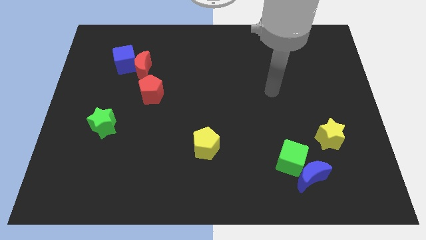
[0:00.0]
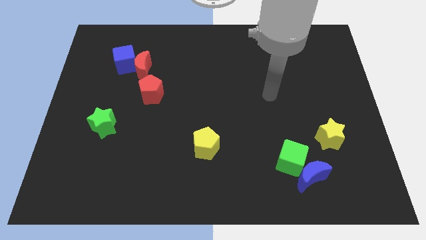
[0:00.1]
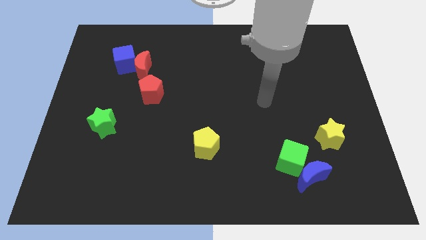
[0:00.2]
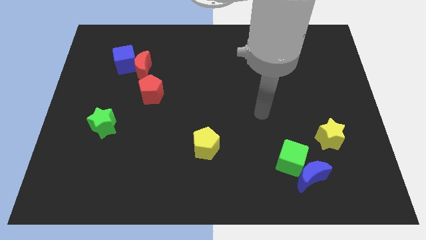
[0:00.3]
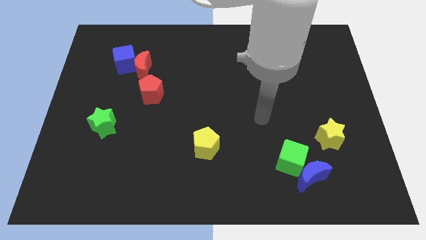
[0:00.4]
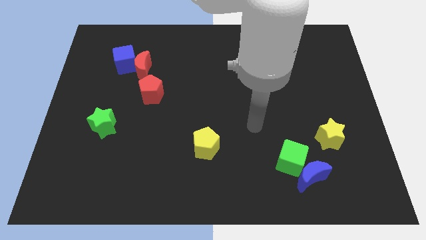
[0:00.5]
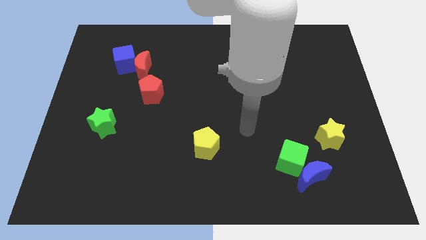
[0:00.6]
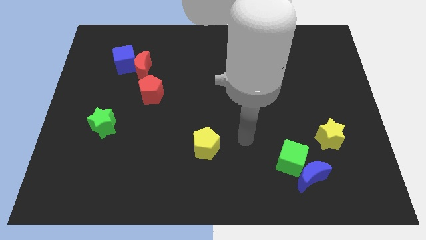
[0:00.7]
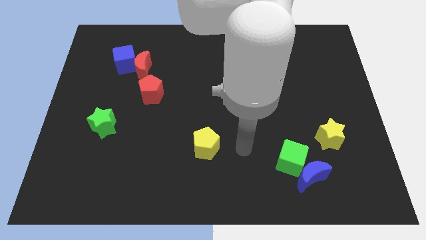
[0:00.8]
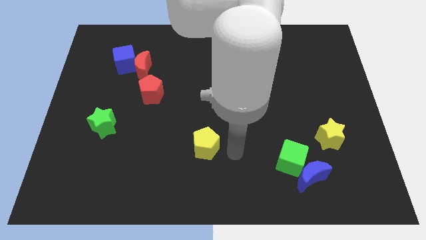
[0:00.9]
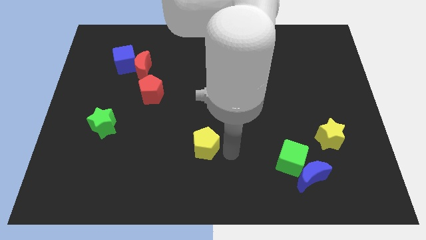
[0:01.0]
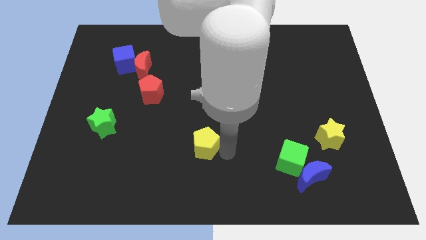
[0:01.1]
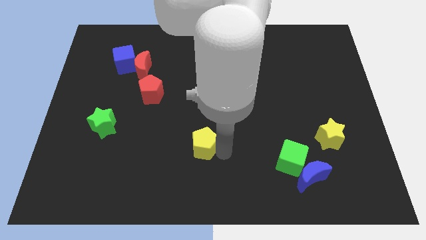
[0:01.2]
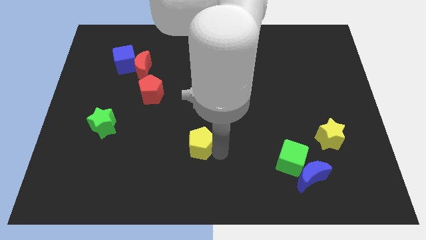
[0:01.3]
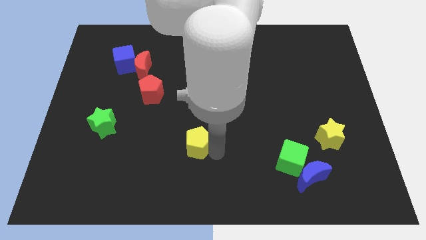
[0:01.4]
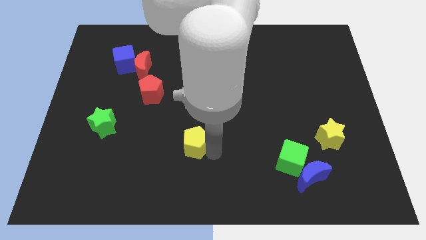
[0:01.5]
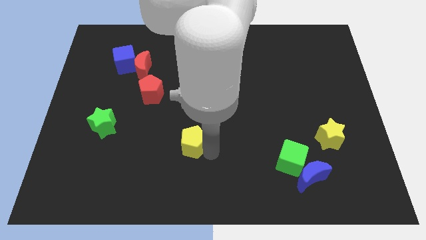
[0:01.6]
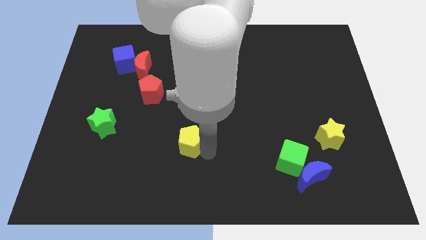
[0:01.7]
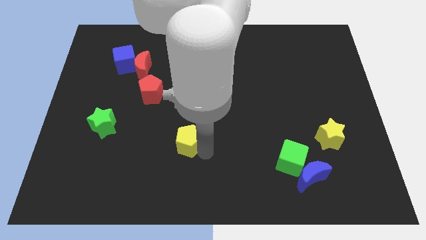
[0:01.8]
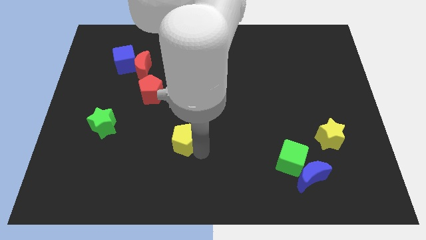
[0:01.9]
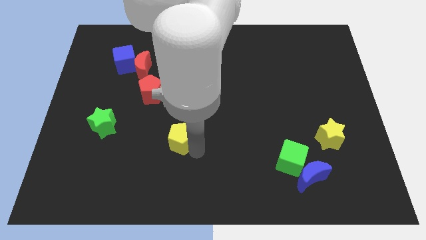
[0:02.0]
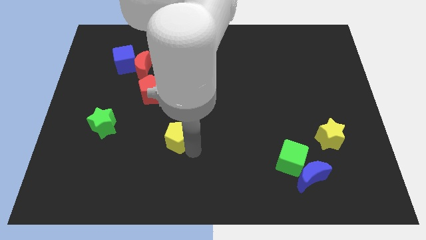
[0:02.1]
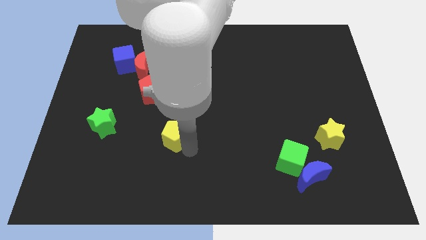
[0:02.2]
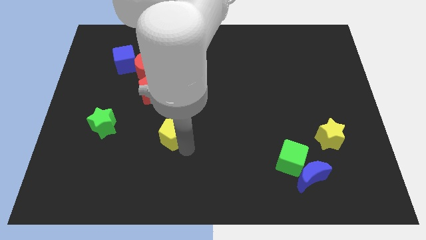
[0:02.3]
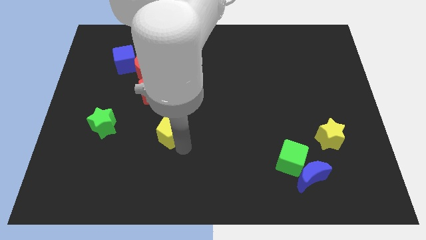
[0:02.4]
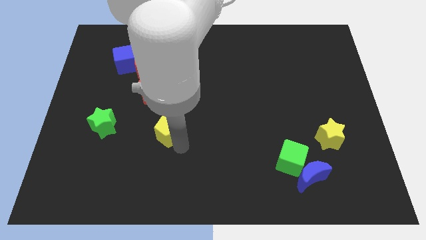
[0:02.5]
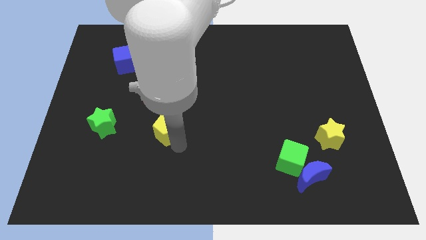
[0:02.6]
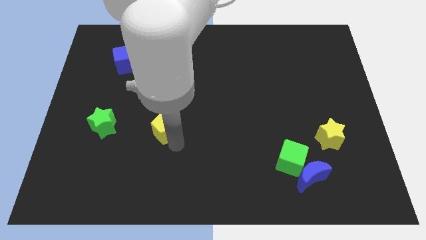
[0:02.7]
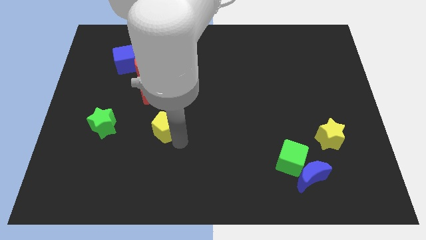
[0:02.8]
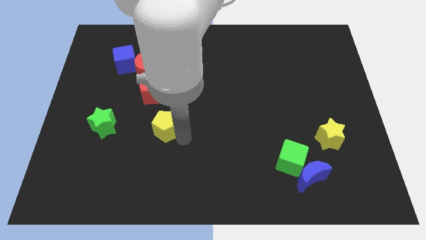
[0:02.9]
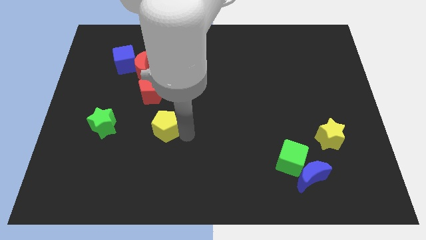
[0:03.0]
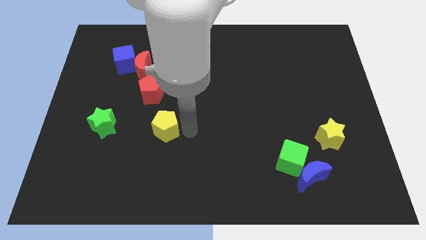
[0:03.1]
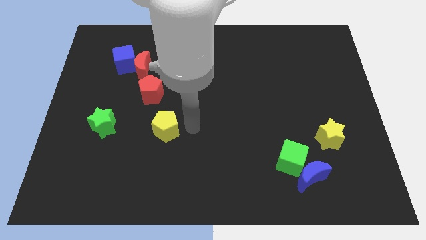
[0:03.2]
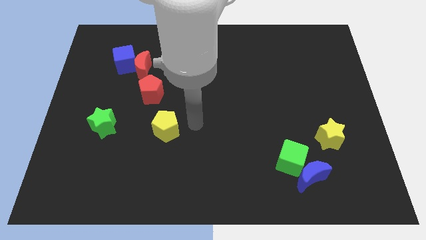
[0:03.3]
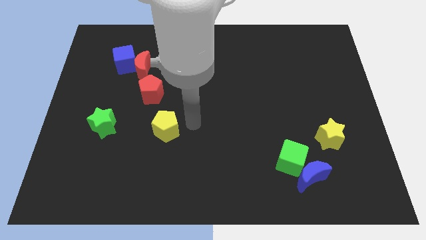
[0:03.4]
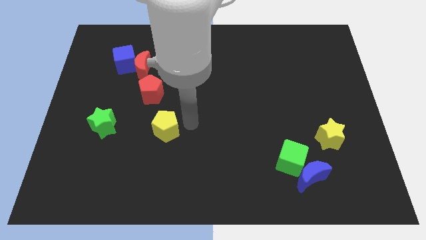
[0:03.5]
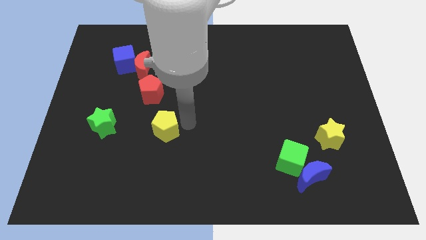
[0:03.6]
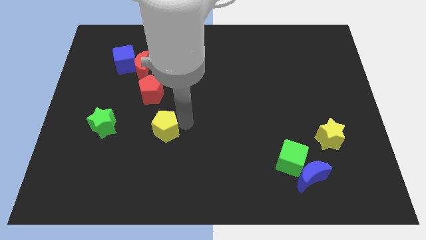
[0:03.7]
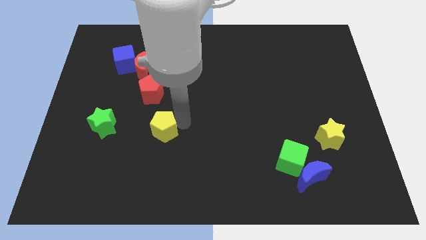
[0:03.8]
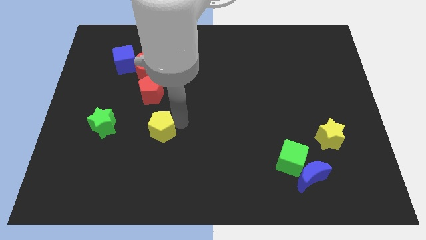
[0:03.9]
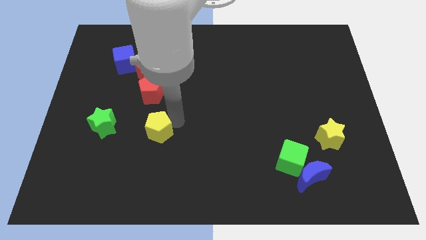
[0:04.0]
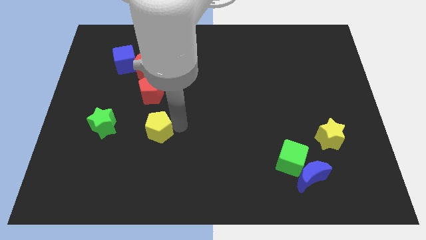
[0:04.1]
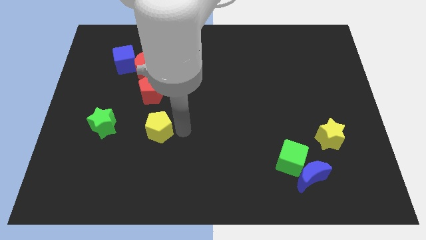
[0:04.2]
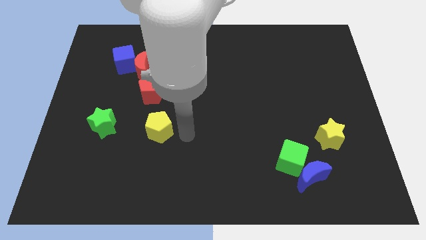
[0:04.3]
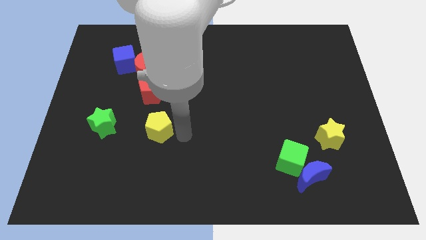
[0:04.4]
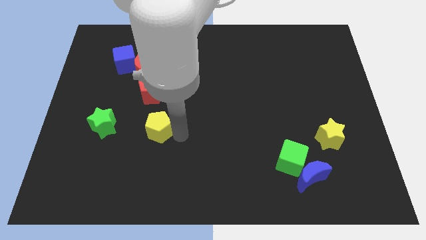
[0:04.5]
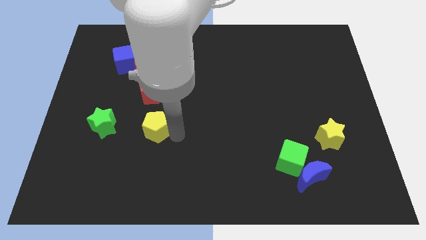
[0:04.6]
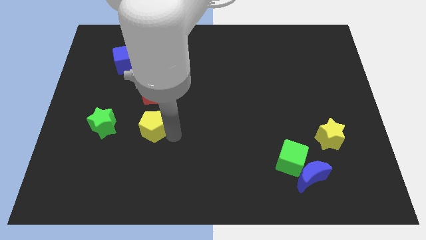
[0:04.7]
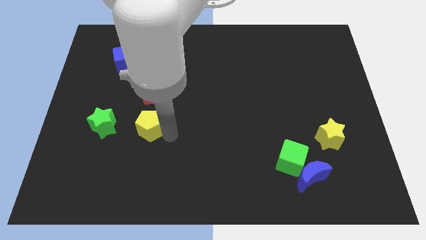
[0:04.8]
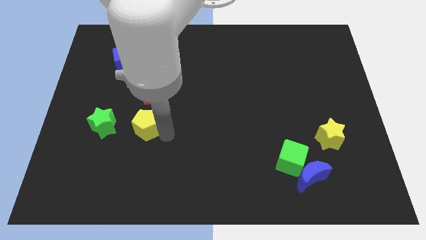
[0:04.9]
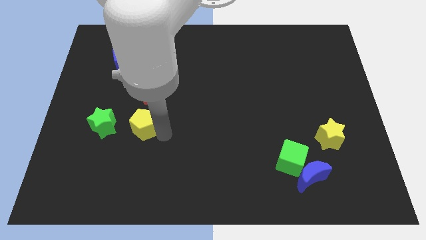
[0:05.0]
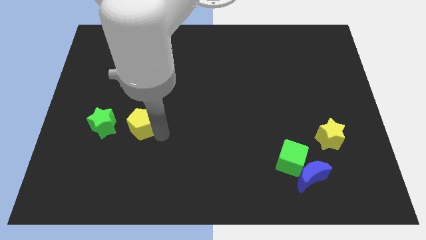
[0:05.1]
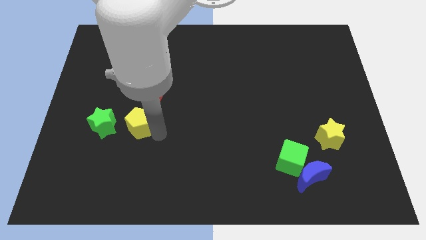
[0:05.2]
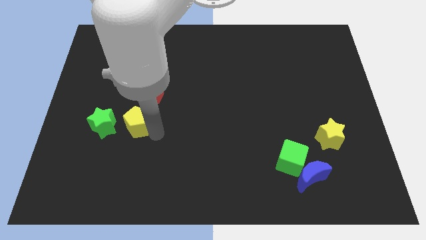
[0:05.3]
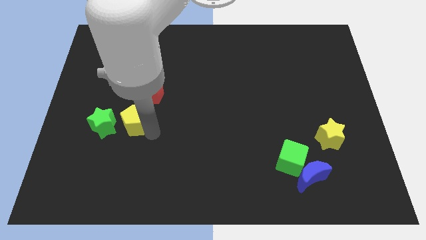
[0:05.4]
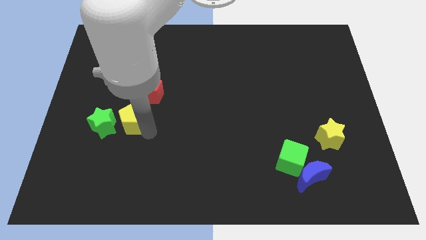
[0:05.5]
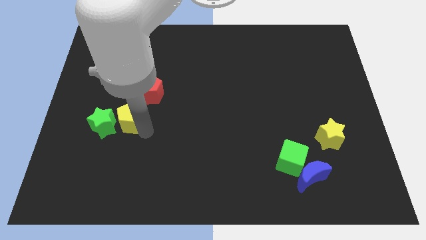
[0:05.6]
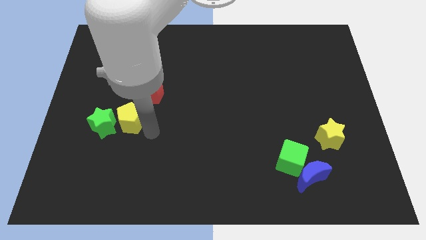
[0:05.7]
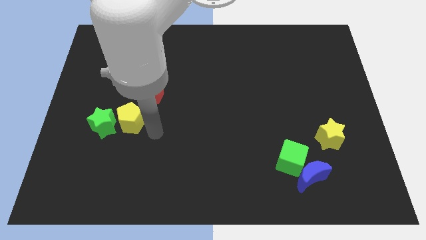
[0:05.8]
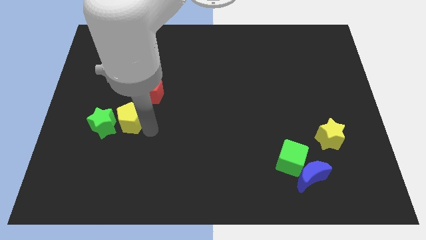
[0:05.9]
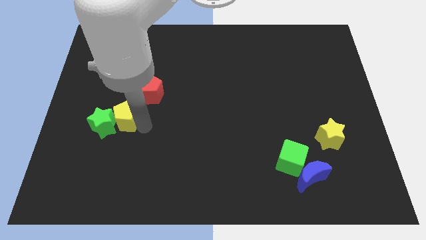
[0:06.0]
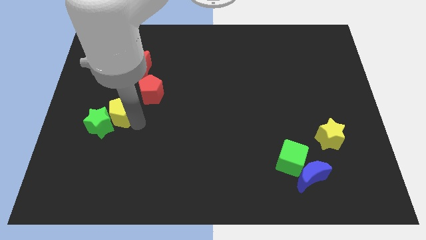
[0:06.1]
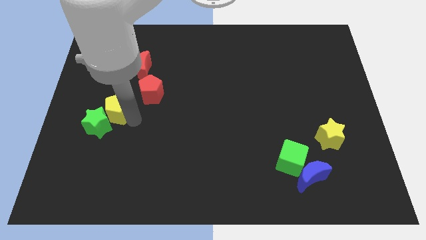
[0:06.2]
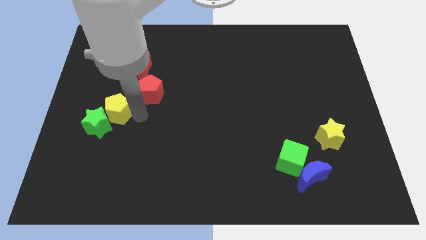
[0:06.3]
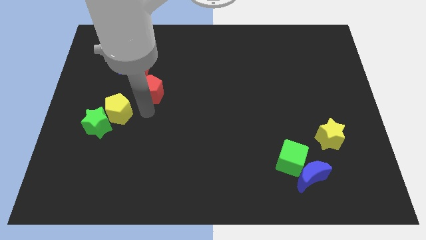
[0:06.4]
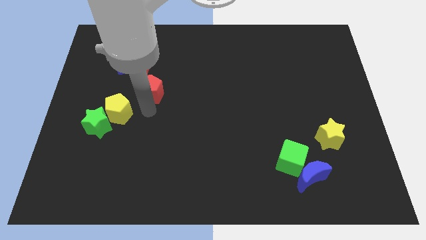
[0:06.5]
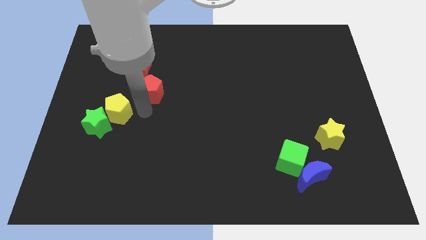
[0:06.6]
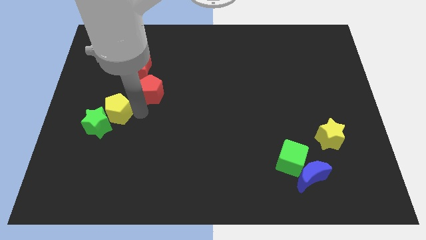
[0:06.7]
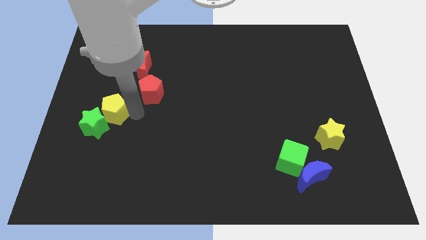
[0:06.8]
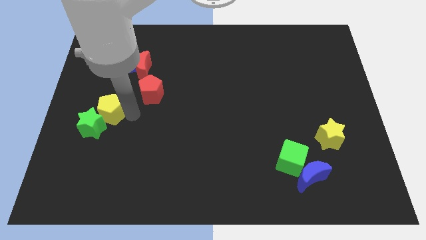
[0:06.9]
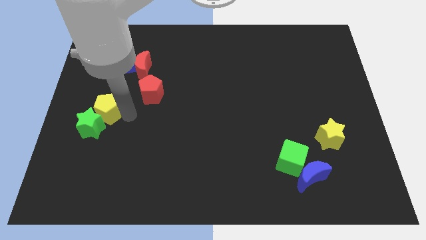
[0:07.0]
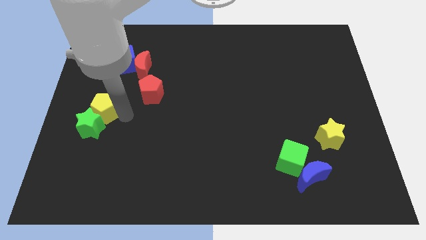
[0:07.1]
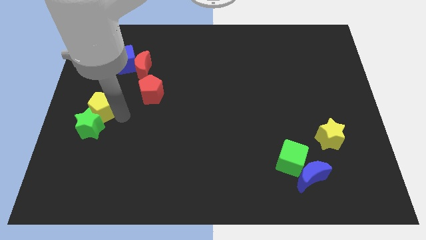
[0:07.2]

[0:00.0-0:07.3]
put the yellow pentagon to the left side of the board

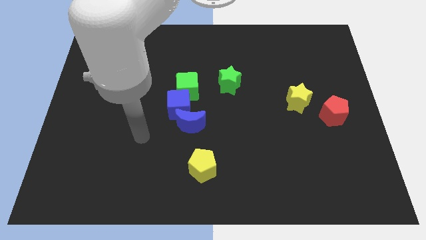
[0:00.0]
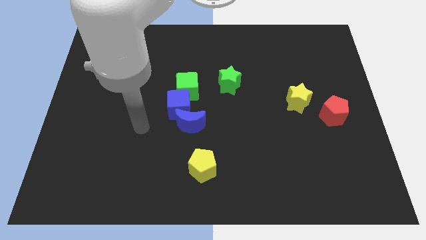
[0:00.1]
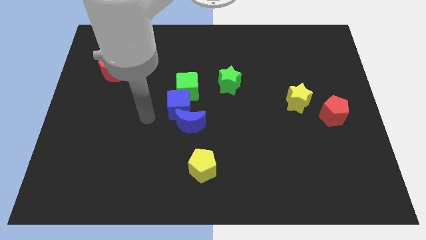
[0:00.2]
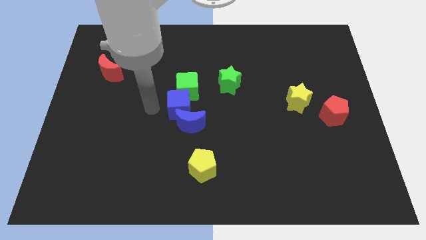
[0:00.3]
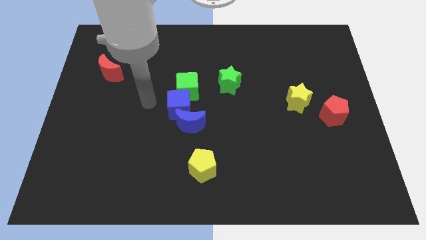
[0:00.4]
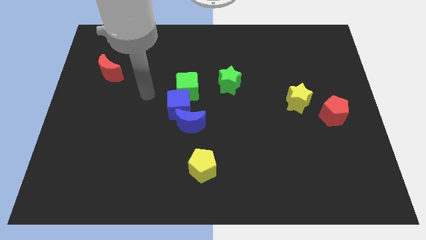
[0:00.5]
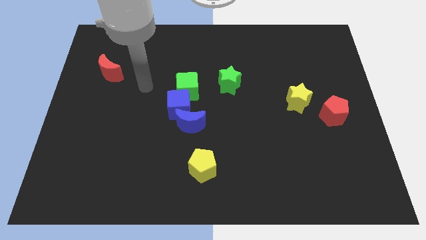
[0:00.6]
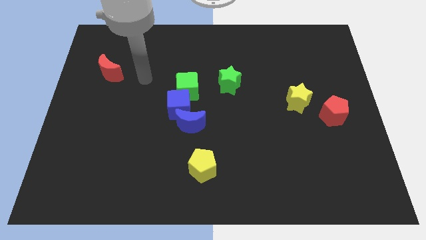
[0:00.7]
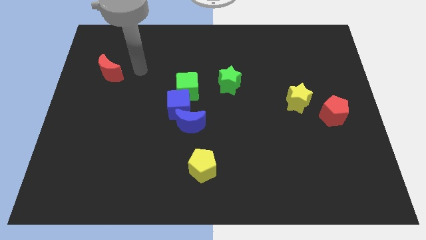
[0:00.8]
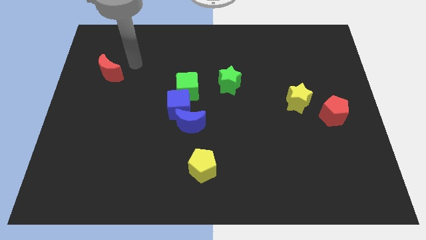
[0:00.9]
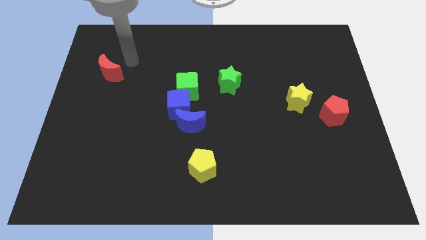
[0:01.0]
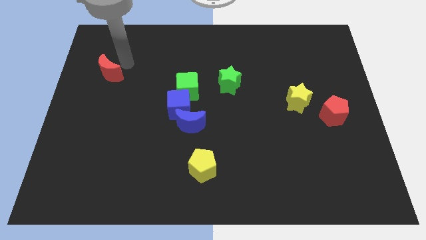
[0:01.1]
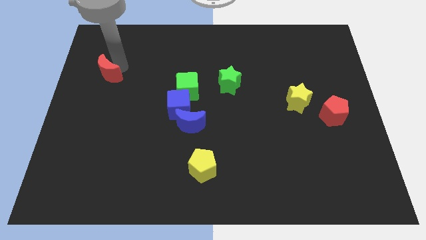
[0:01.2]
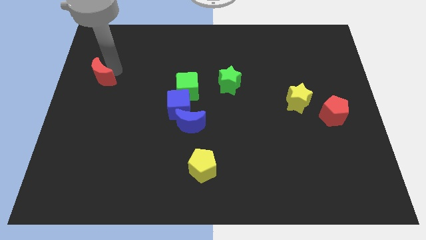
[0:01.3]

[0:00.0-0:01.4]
put the red moon to the left side
